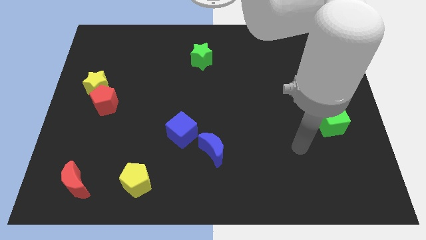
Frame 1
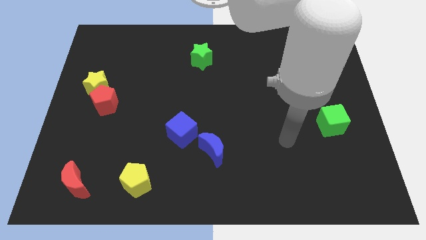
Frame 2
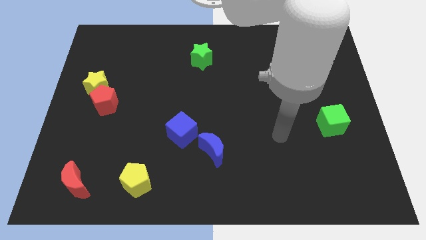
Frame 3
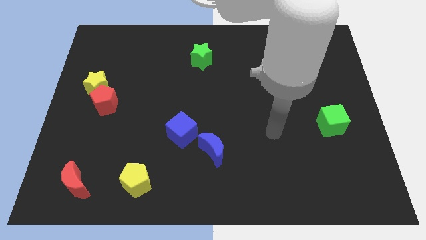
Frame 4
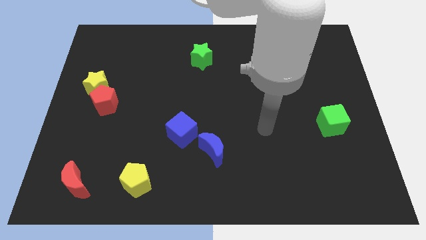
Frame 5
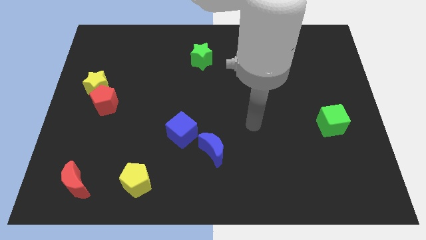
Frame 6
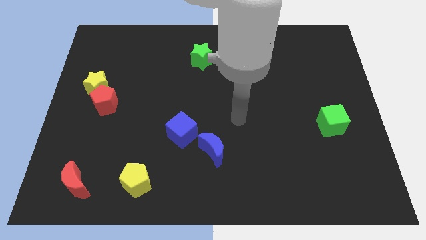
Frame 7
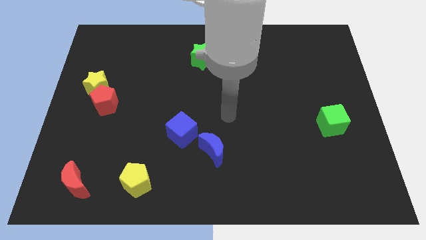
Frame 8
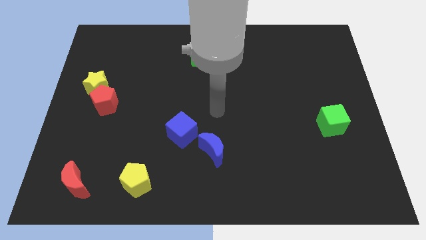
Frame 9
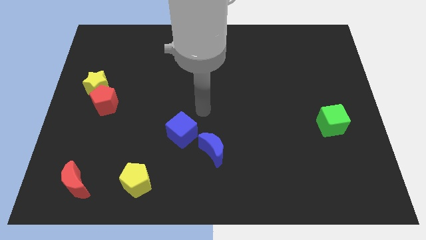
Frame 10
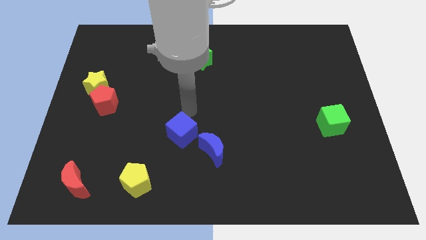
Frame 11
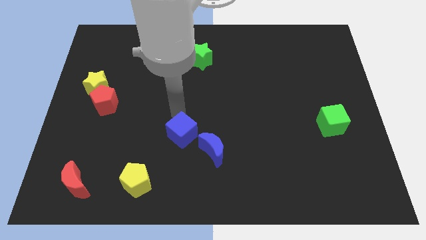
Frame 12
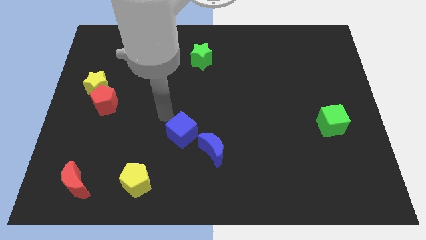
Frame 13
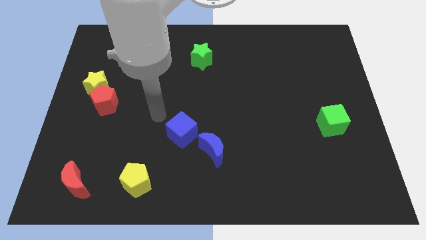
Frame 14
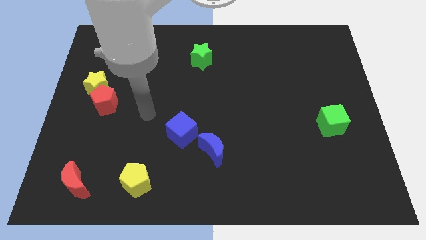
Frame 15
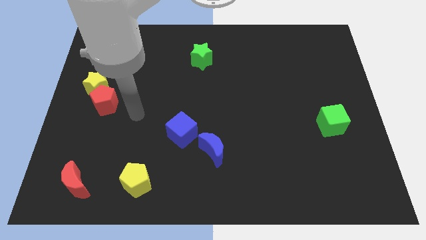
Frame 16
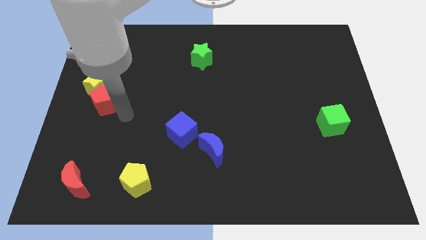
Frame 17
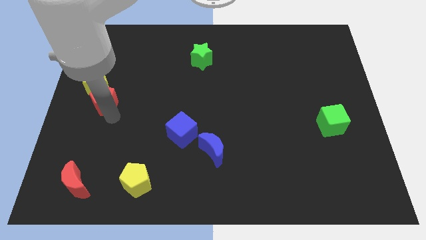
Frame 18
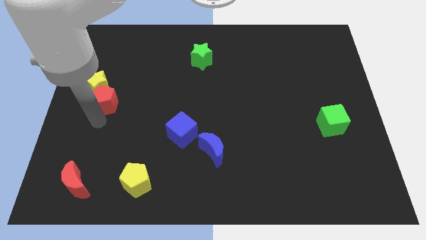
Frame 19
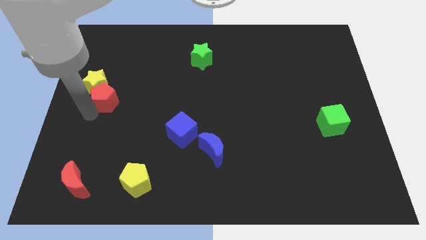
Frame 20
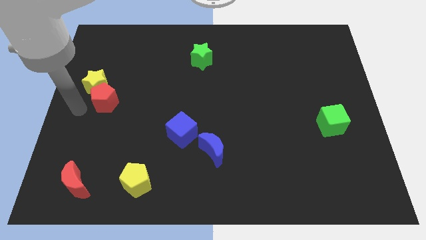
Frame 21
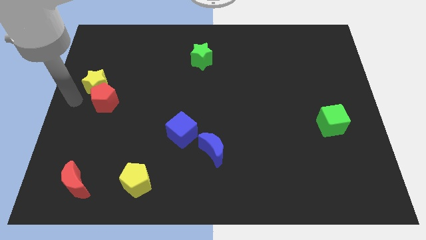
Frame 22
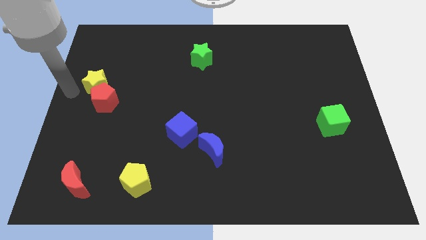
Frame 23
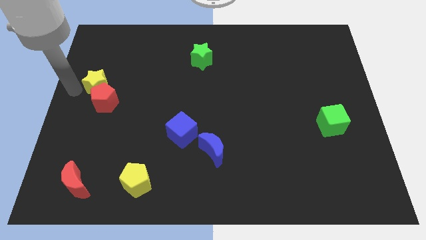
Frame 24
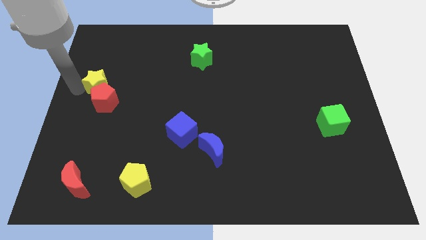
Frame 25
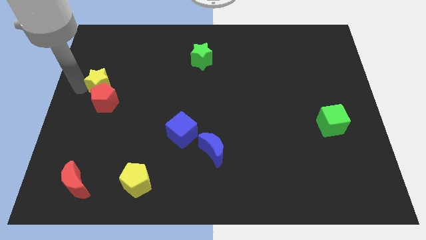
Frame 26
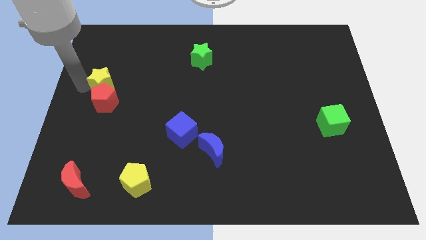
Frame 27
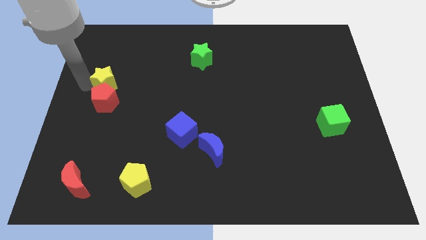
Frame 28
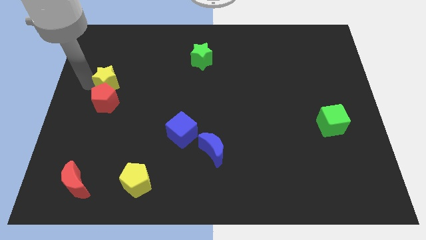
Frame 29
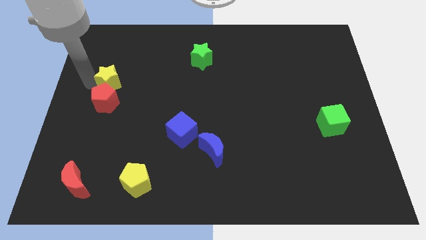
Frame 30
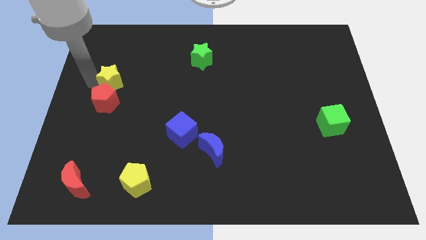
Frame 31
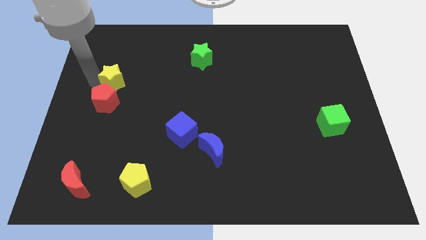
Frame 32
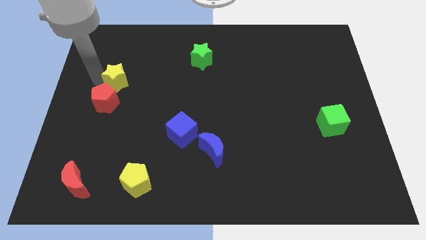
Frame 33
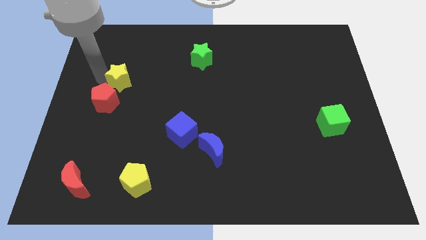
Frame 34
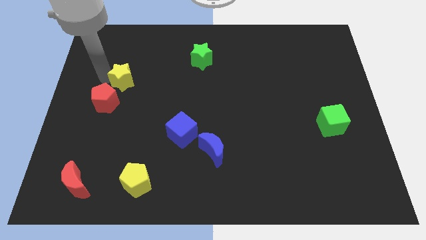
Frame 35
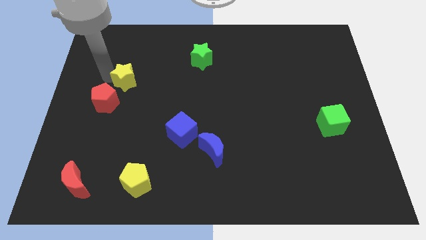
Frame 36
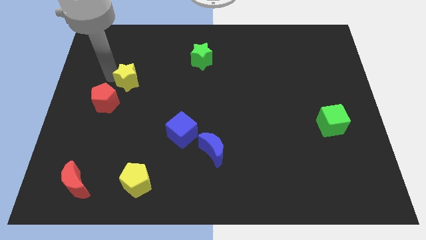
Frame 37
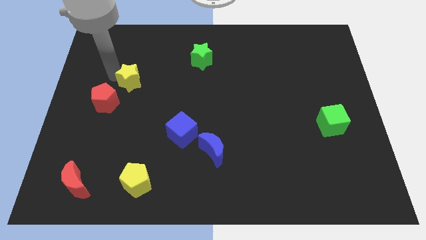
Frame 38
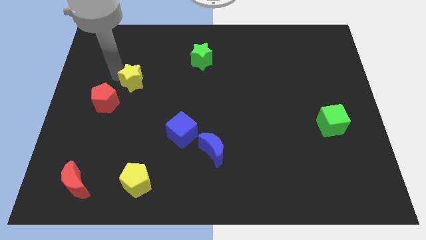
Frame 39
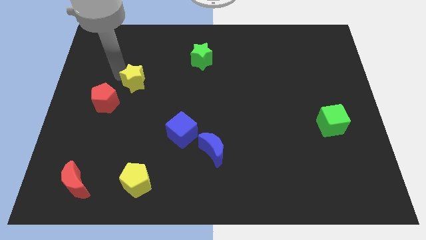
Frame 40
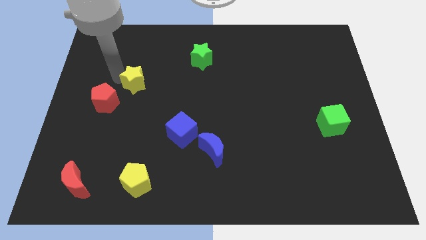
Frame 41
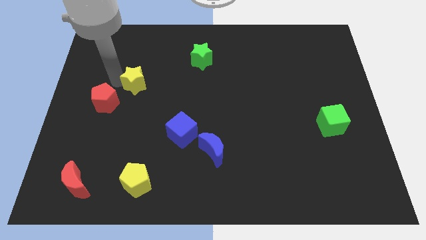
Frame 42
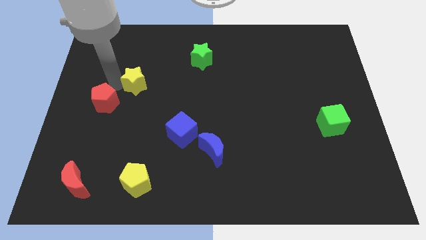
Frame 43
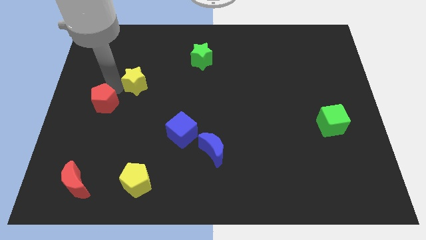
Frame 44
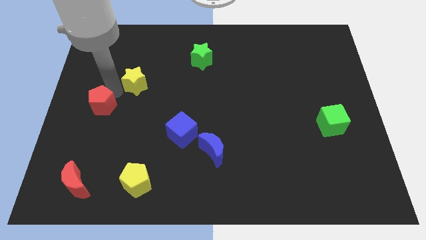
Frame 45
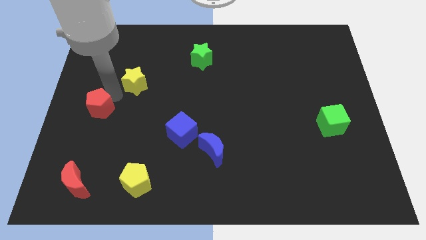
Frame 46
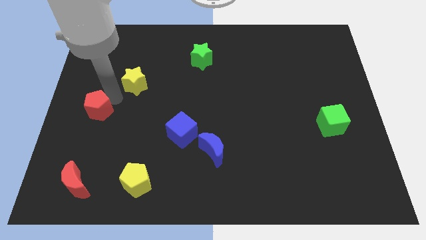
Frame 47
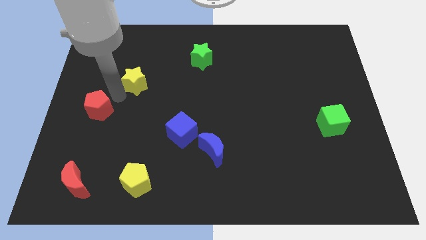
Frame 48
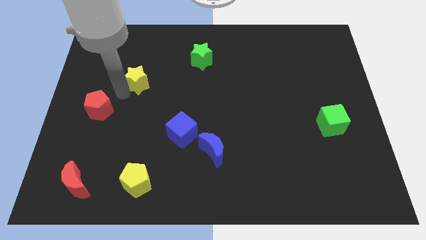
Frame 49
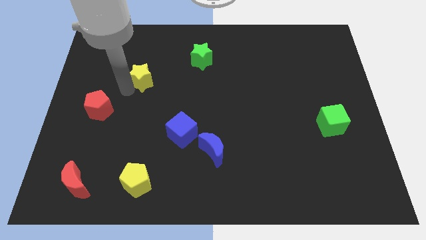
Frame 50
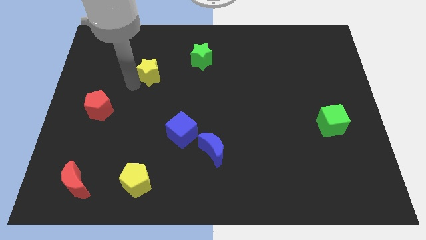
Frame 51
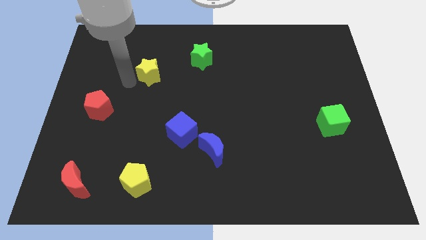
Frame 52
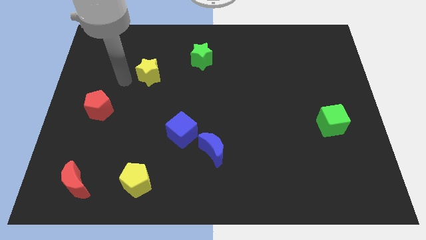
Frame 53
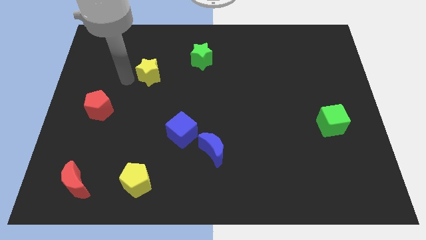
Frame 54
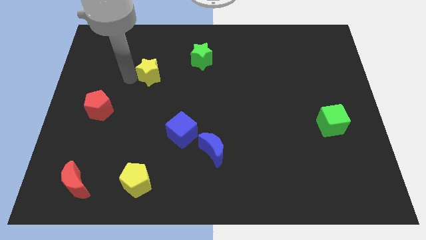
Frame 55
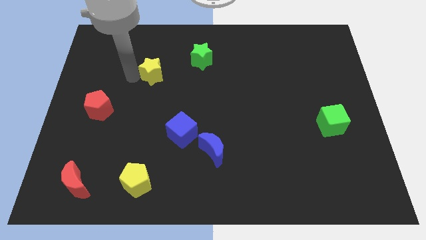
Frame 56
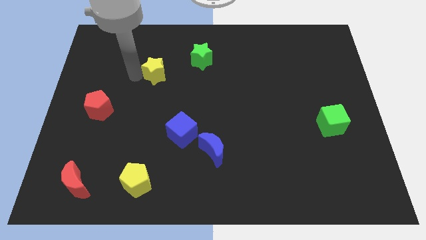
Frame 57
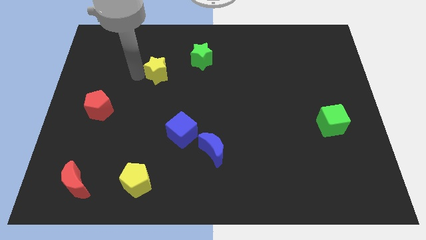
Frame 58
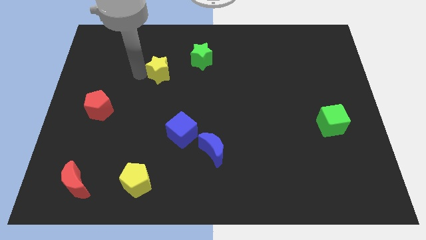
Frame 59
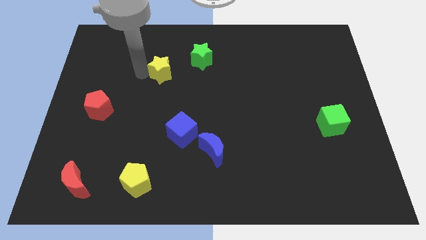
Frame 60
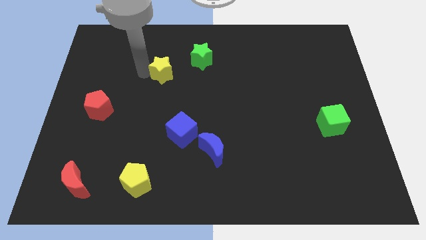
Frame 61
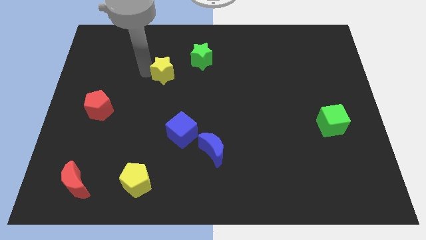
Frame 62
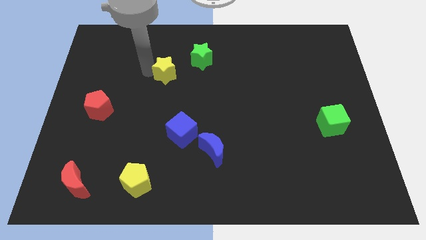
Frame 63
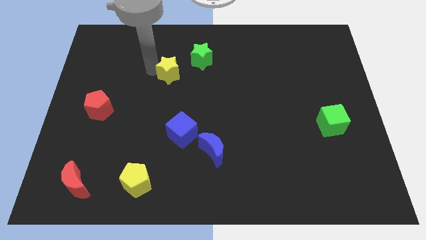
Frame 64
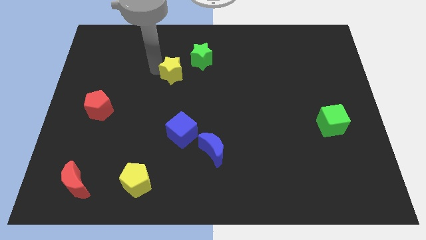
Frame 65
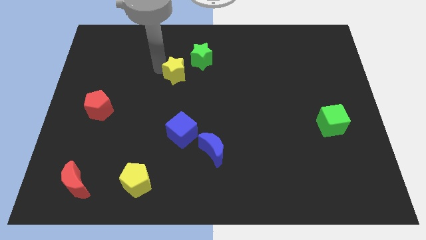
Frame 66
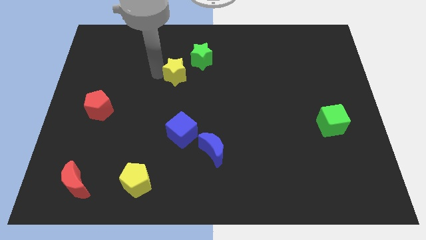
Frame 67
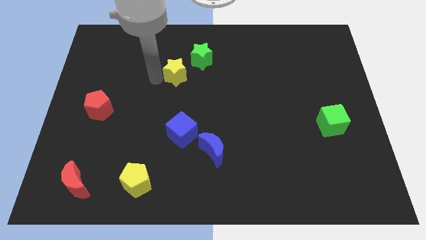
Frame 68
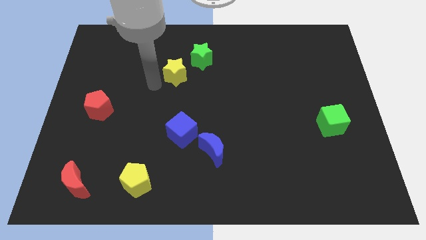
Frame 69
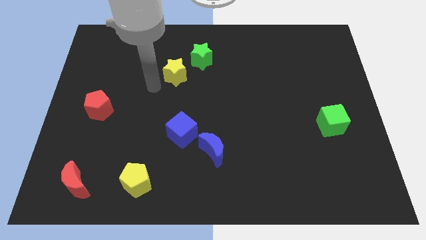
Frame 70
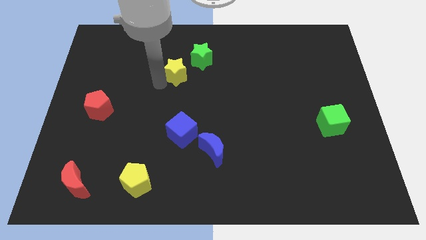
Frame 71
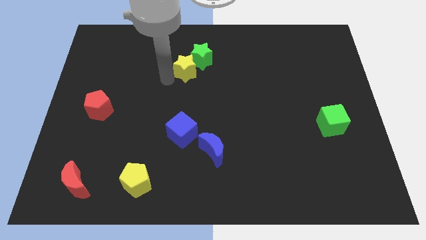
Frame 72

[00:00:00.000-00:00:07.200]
slide the yellow star next to the green star

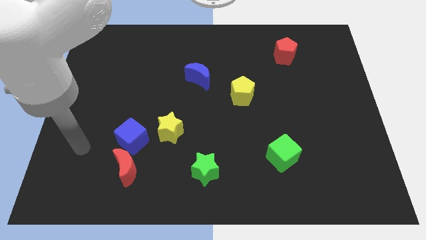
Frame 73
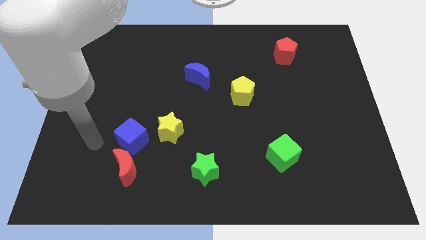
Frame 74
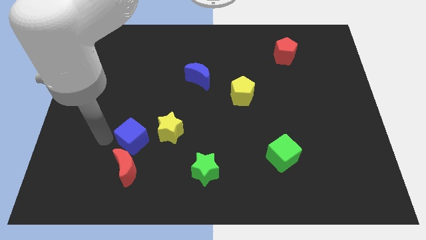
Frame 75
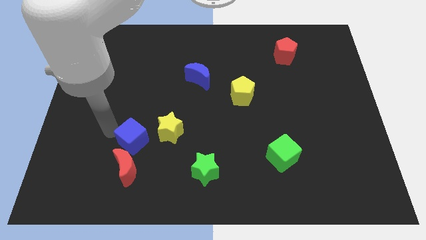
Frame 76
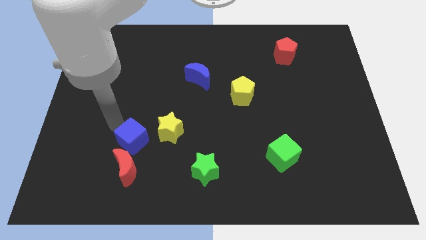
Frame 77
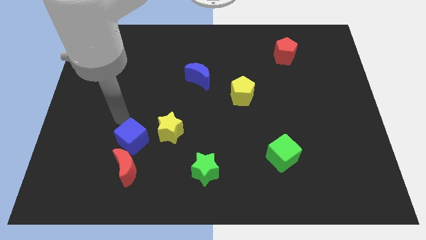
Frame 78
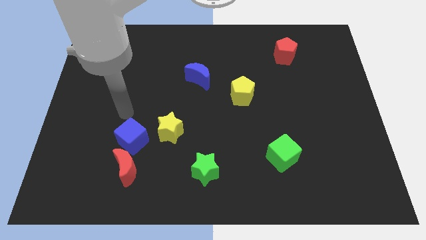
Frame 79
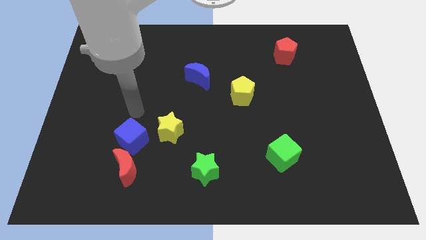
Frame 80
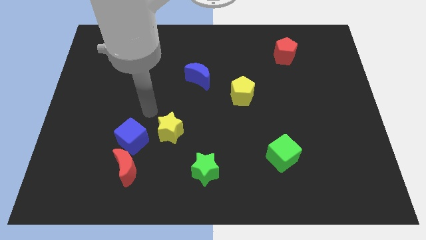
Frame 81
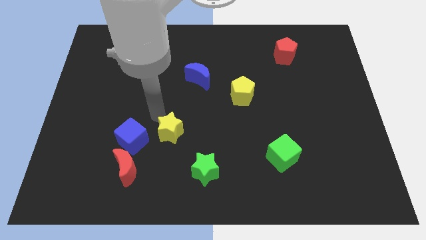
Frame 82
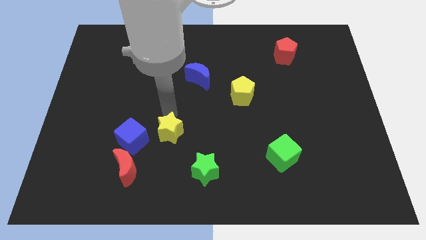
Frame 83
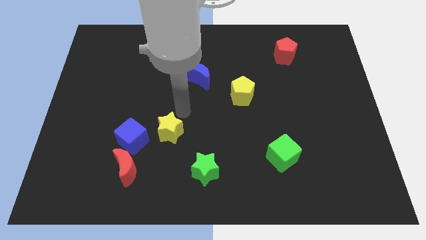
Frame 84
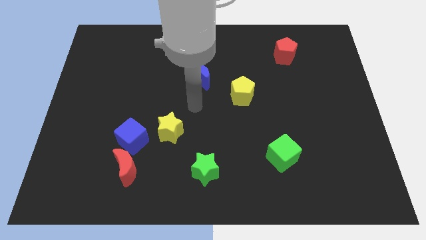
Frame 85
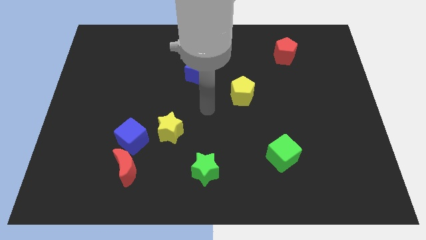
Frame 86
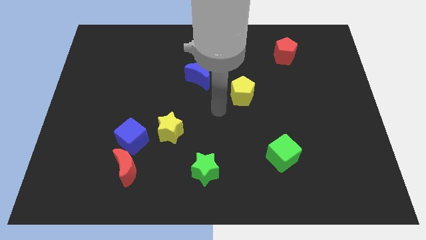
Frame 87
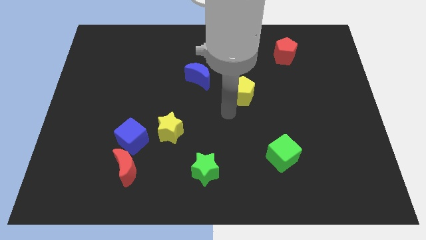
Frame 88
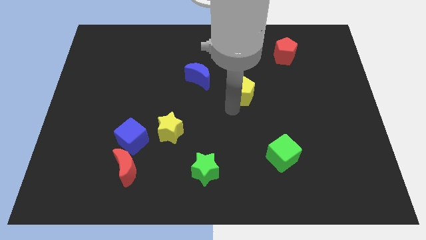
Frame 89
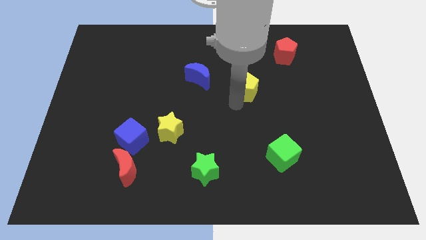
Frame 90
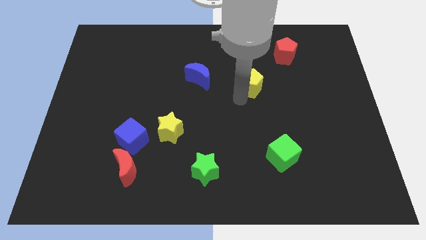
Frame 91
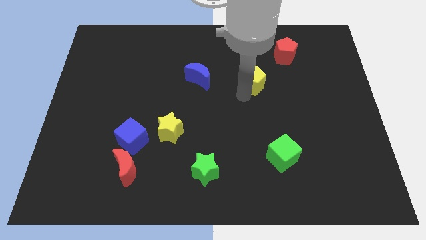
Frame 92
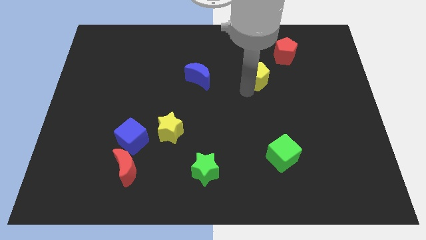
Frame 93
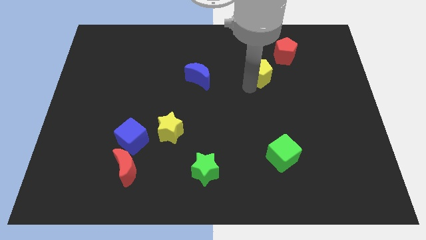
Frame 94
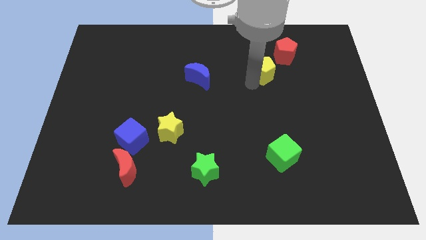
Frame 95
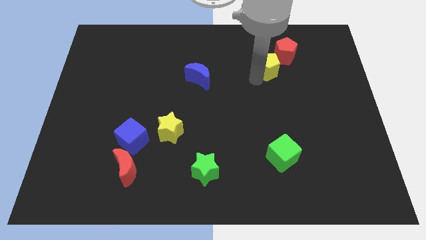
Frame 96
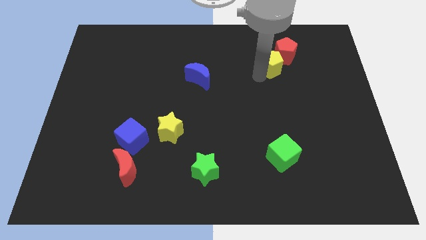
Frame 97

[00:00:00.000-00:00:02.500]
put the yellow pentagon to the red pentagon
